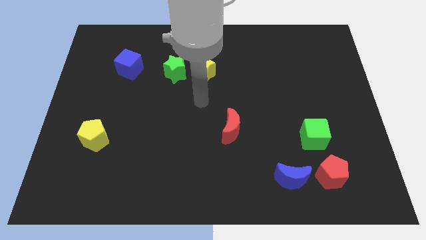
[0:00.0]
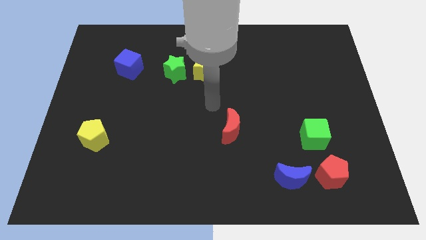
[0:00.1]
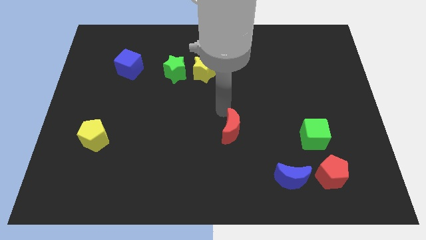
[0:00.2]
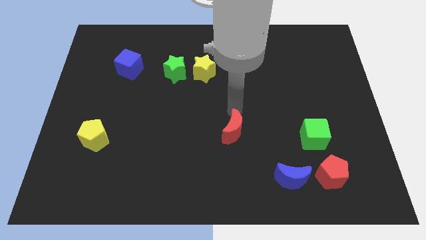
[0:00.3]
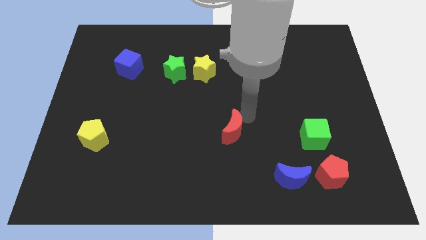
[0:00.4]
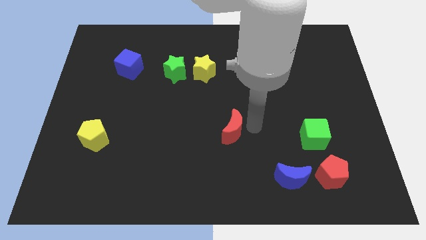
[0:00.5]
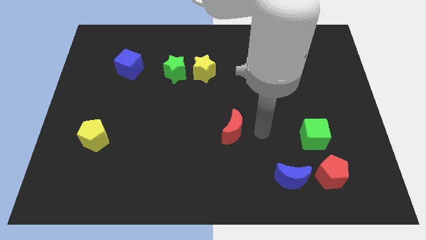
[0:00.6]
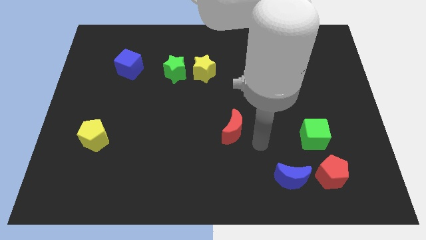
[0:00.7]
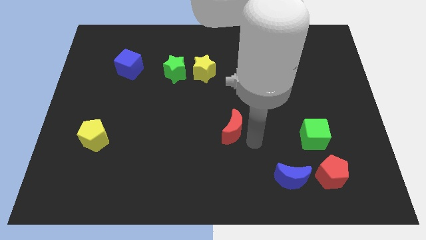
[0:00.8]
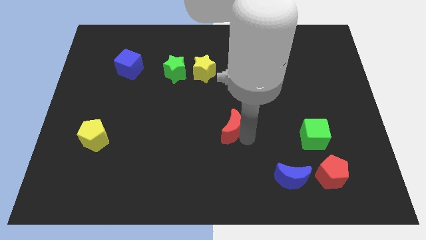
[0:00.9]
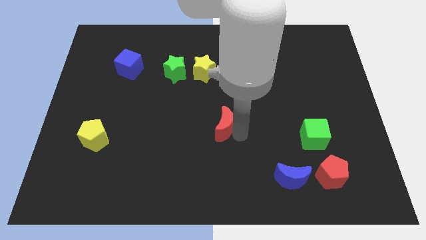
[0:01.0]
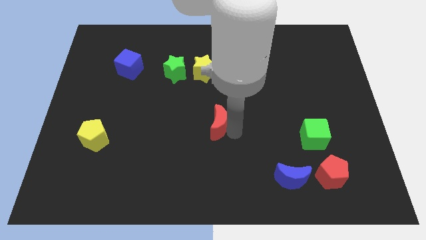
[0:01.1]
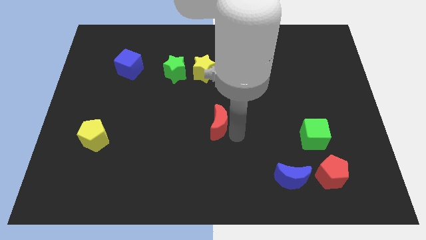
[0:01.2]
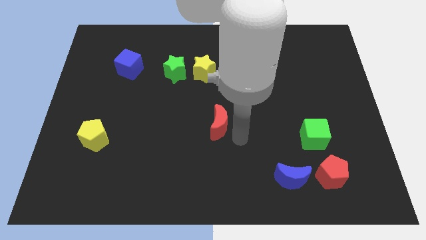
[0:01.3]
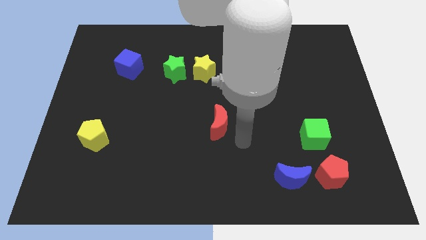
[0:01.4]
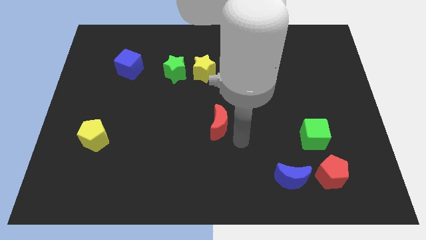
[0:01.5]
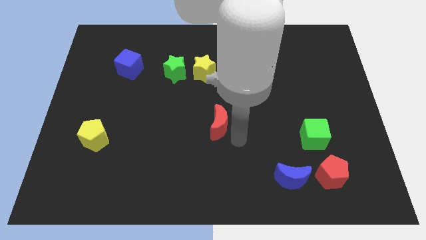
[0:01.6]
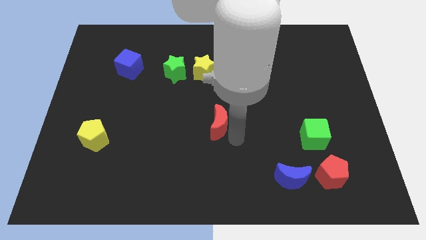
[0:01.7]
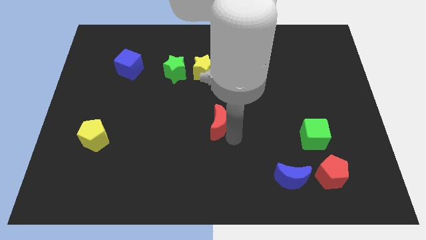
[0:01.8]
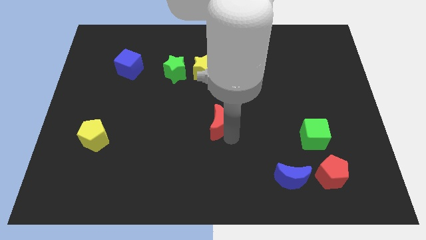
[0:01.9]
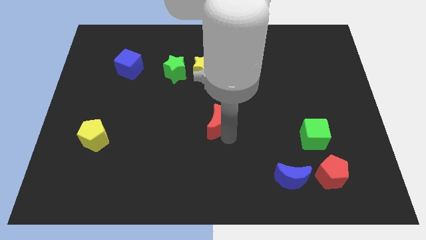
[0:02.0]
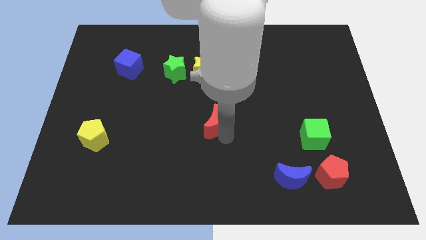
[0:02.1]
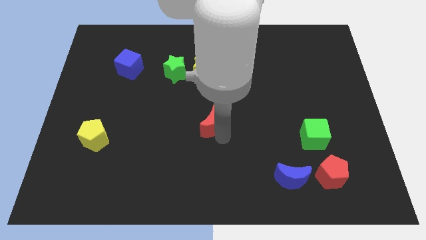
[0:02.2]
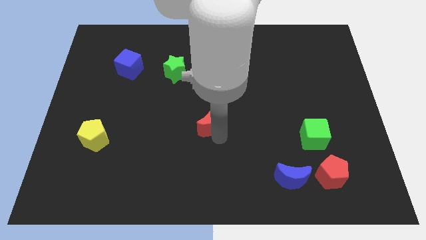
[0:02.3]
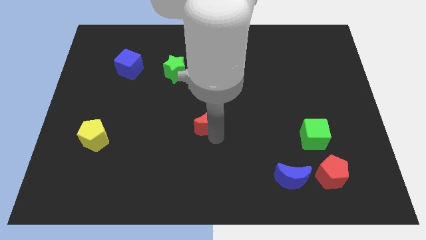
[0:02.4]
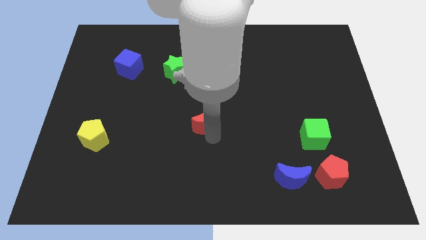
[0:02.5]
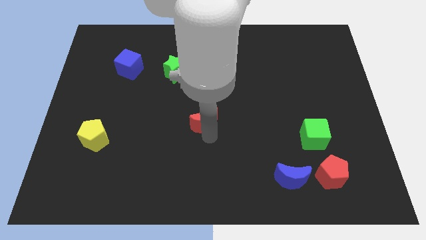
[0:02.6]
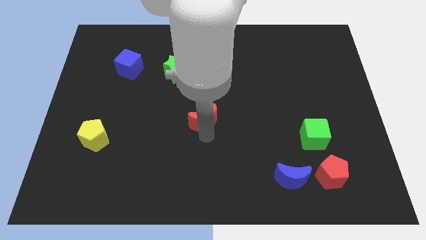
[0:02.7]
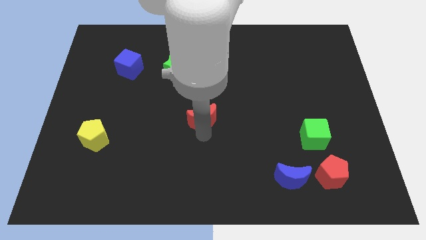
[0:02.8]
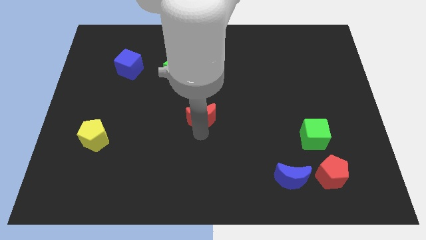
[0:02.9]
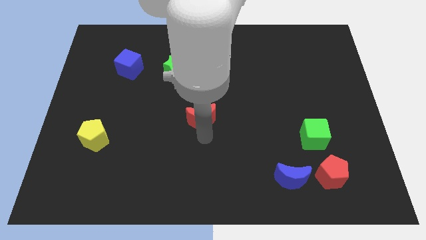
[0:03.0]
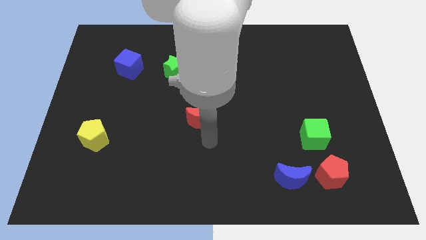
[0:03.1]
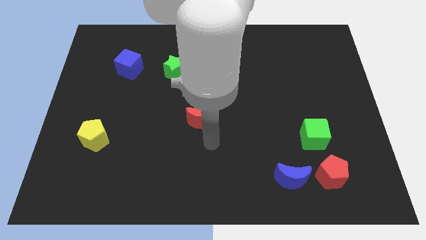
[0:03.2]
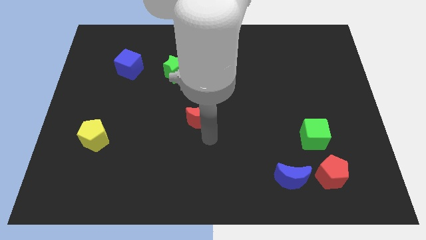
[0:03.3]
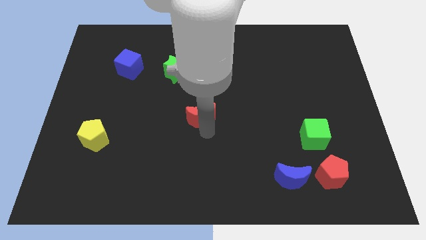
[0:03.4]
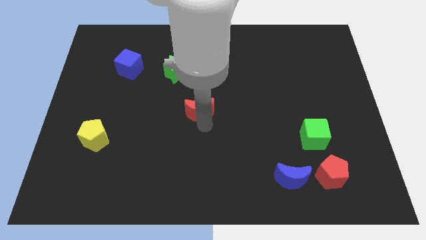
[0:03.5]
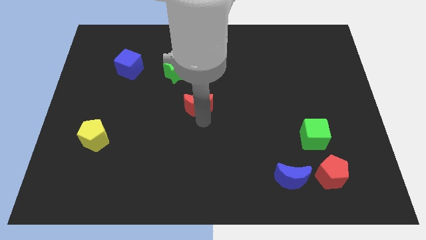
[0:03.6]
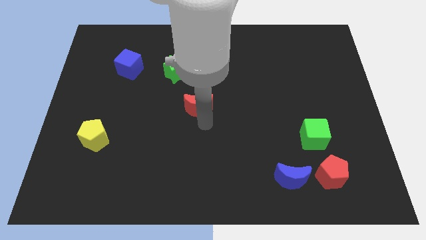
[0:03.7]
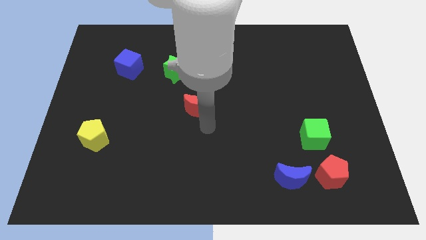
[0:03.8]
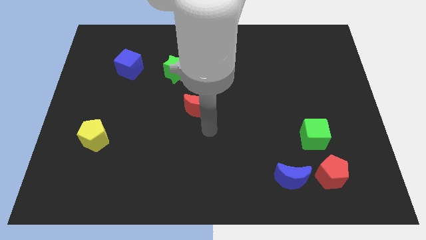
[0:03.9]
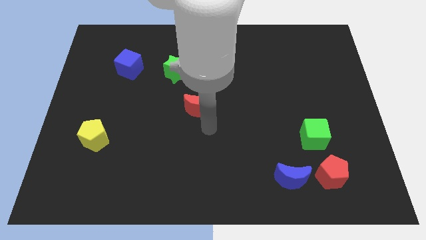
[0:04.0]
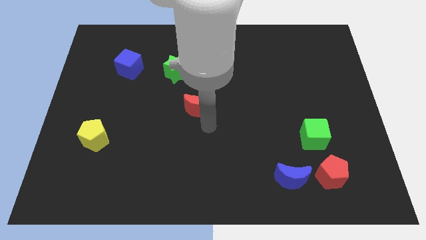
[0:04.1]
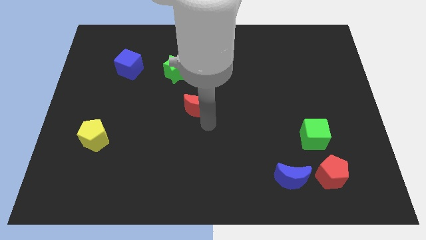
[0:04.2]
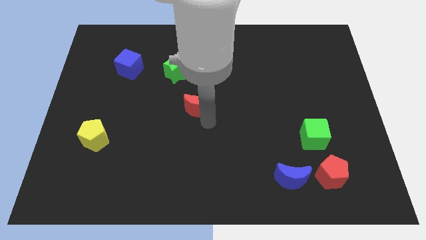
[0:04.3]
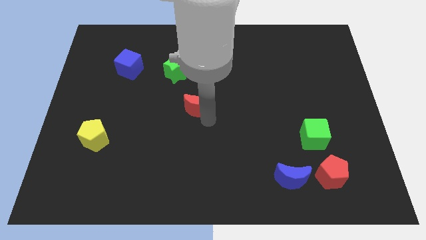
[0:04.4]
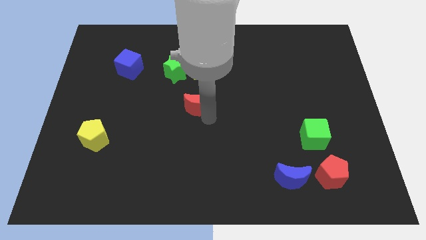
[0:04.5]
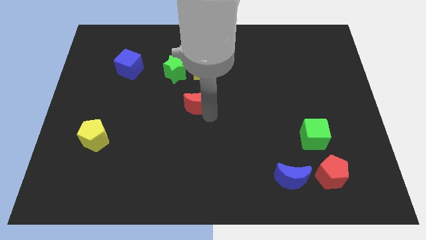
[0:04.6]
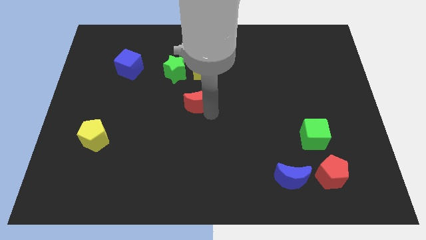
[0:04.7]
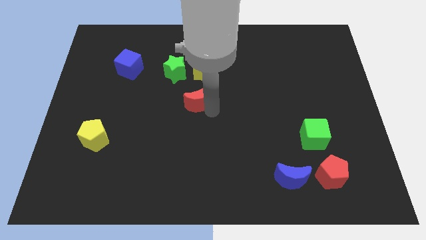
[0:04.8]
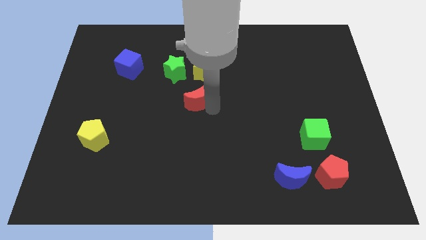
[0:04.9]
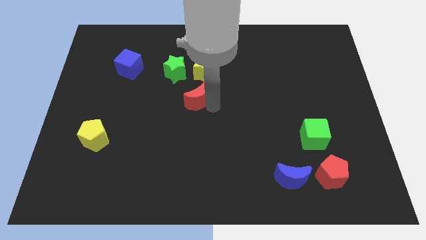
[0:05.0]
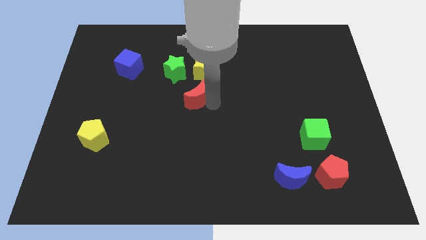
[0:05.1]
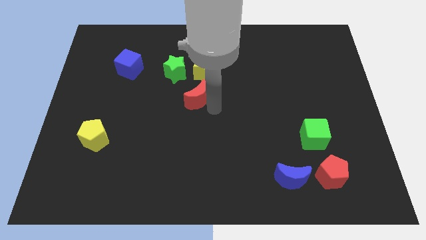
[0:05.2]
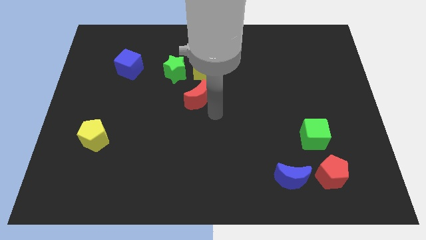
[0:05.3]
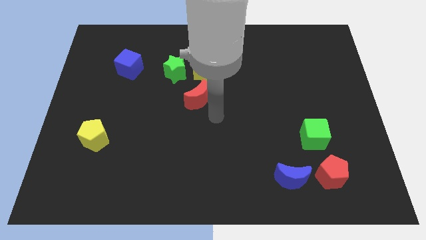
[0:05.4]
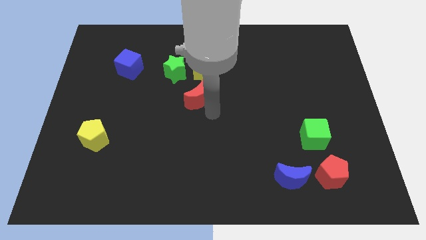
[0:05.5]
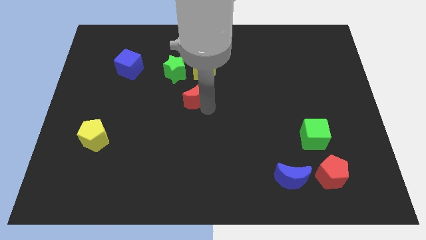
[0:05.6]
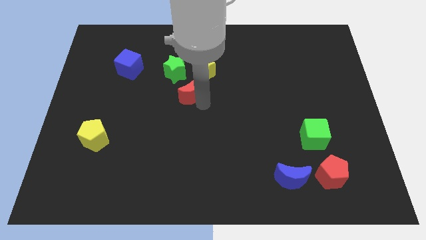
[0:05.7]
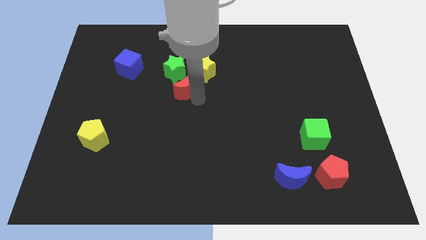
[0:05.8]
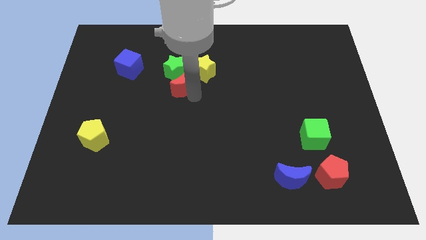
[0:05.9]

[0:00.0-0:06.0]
slide the red moon close to the green star
